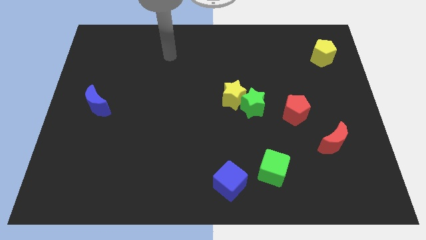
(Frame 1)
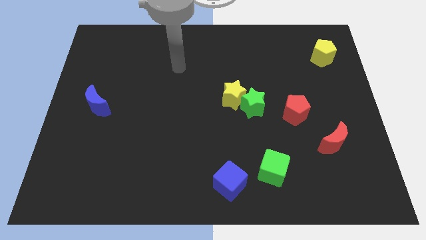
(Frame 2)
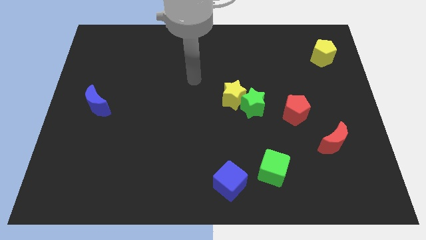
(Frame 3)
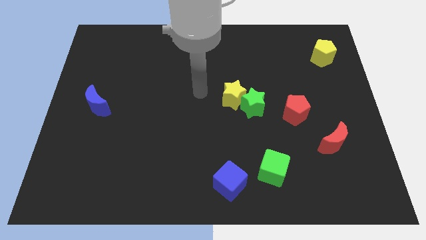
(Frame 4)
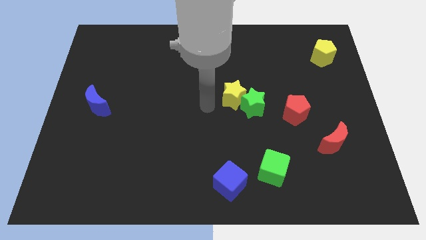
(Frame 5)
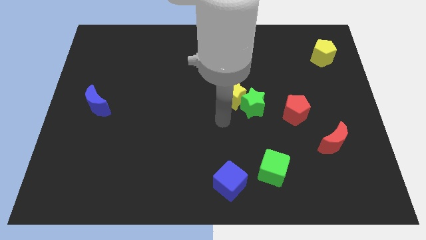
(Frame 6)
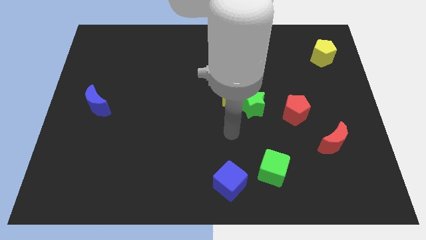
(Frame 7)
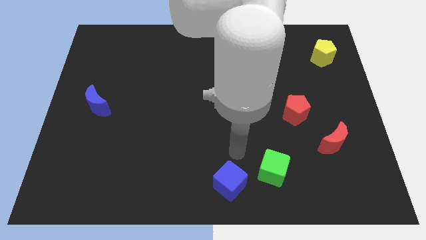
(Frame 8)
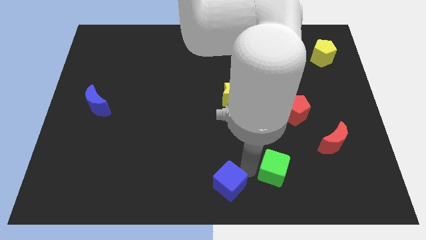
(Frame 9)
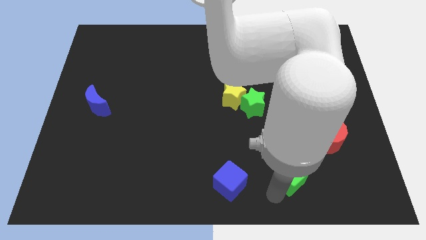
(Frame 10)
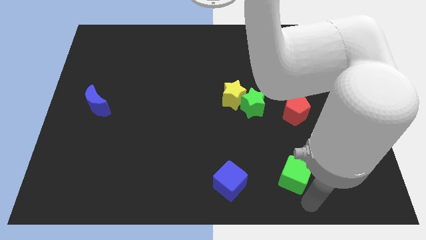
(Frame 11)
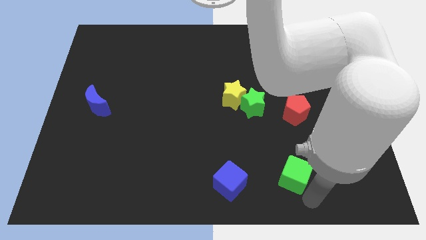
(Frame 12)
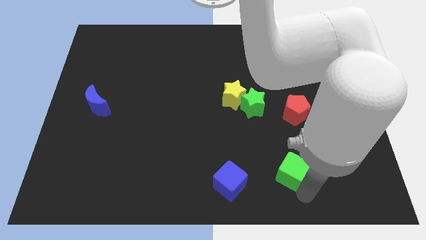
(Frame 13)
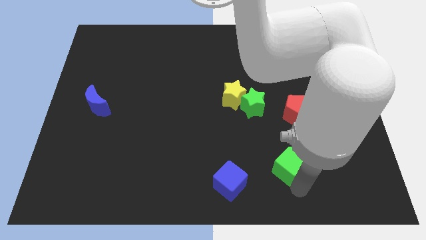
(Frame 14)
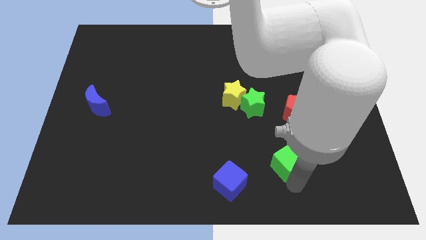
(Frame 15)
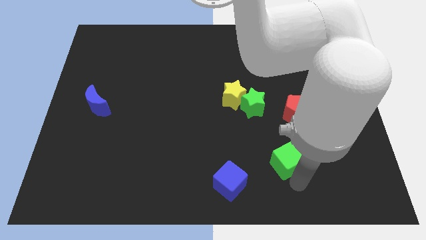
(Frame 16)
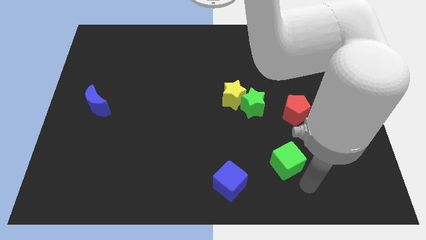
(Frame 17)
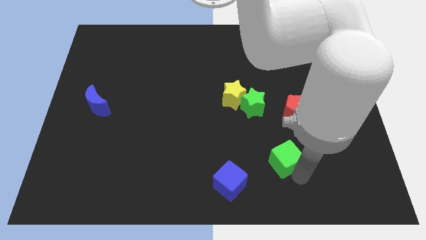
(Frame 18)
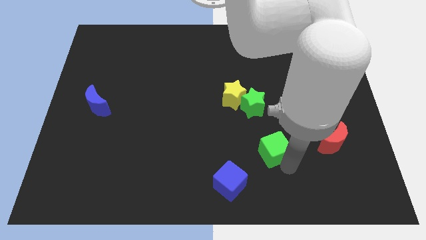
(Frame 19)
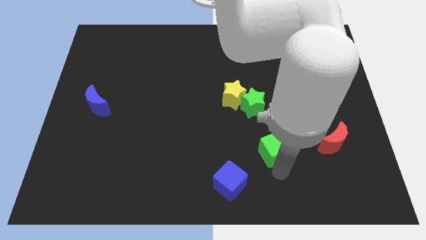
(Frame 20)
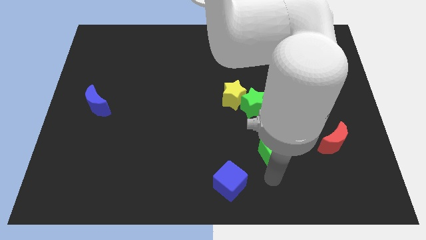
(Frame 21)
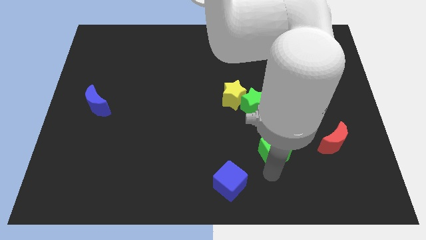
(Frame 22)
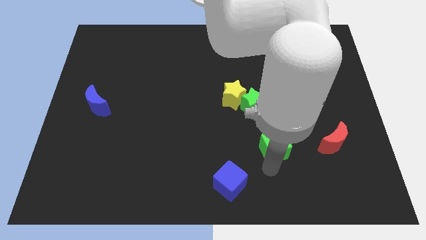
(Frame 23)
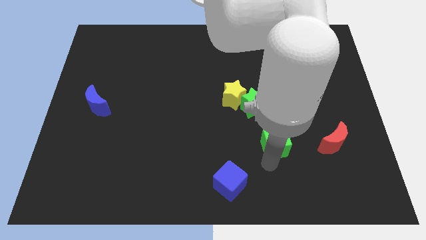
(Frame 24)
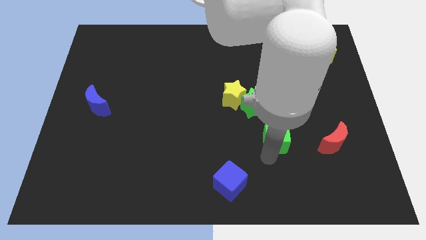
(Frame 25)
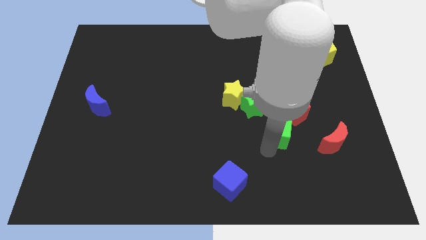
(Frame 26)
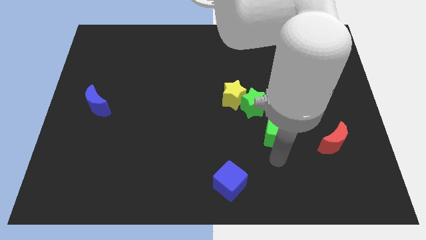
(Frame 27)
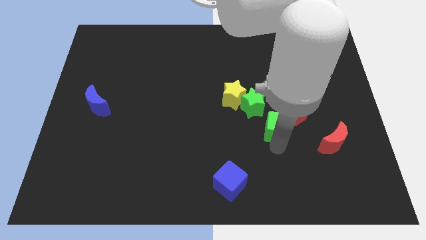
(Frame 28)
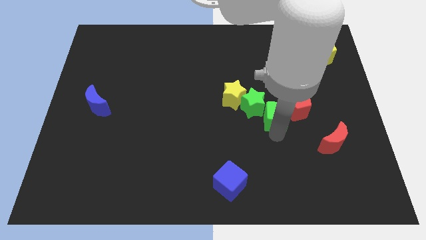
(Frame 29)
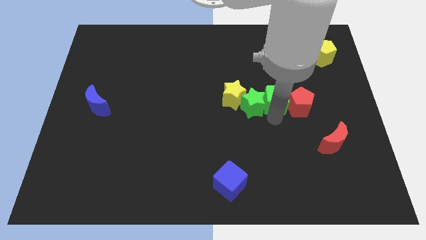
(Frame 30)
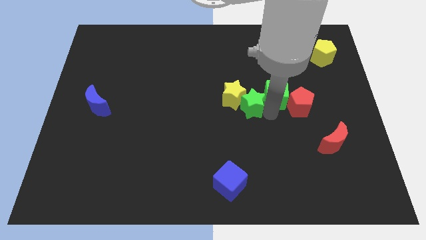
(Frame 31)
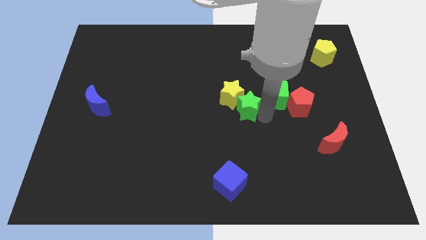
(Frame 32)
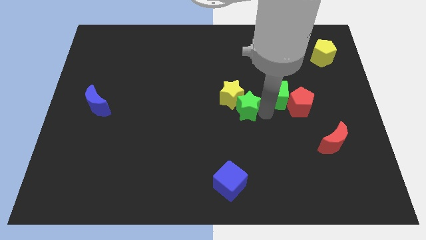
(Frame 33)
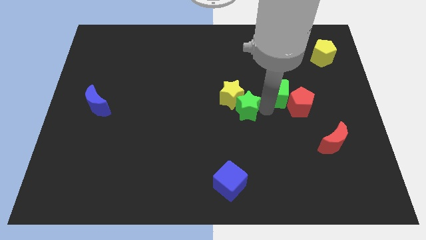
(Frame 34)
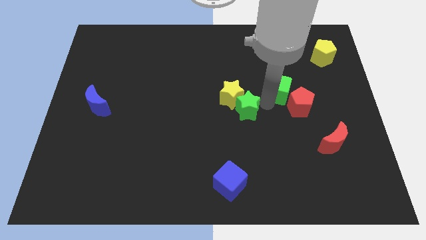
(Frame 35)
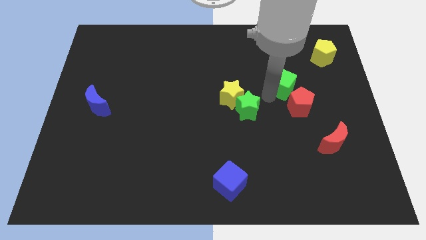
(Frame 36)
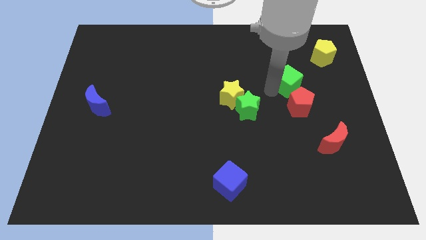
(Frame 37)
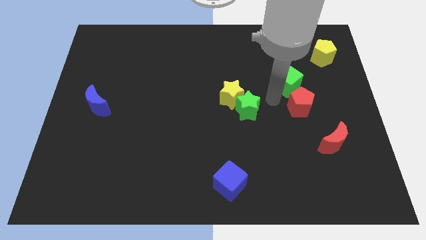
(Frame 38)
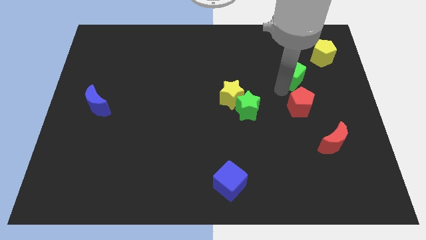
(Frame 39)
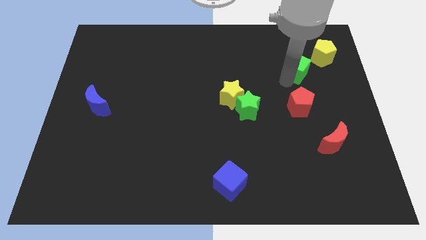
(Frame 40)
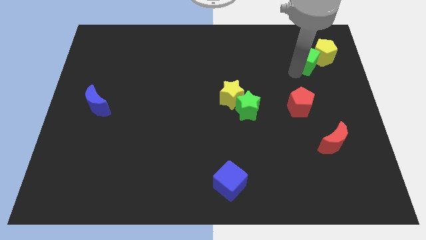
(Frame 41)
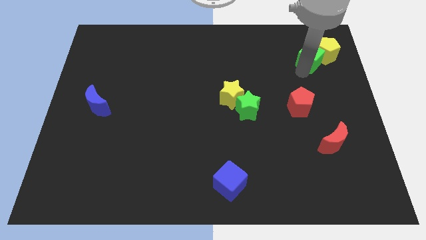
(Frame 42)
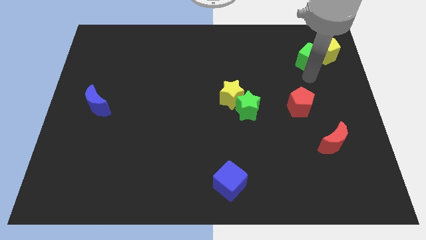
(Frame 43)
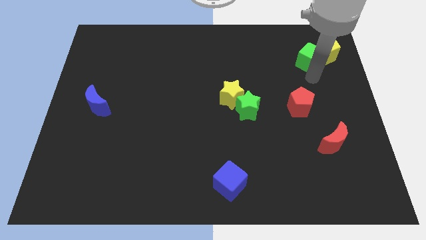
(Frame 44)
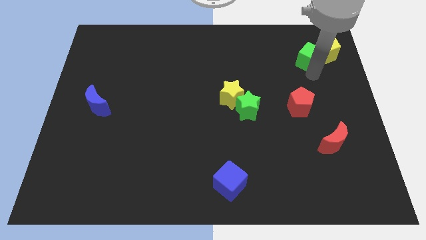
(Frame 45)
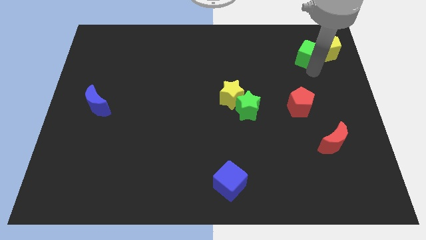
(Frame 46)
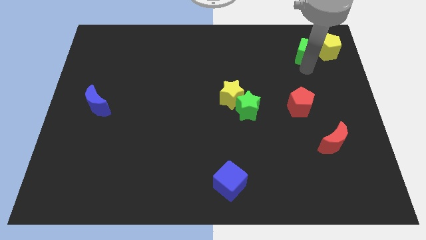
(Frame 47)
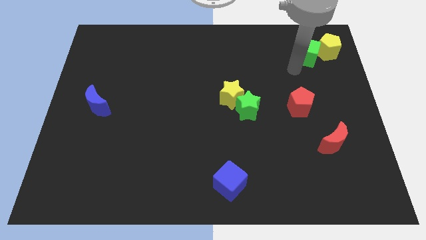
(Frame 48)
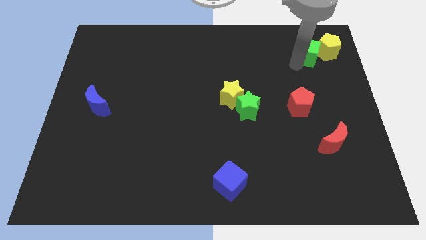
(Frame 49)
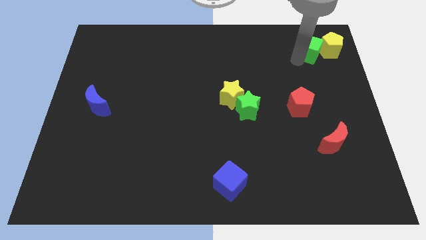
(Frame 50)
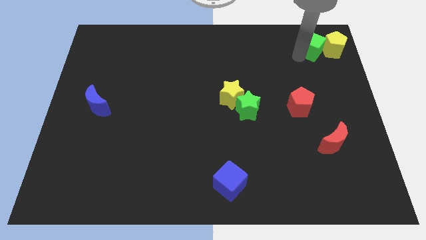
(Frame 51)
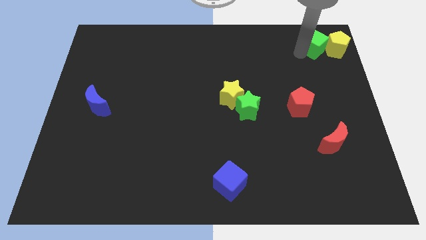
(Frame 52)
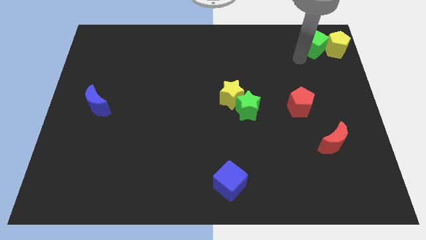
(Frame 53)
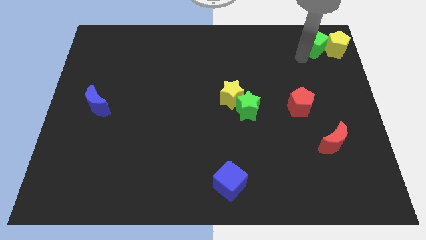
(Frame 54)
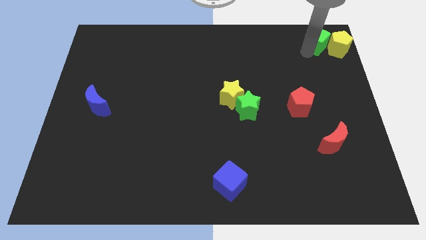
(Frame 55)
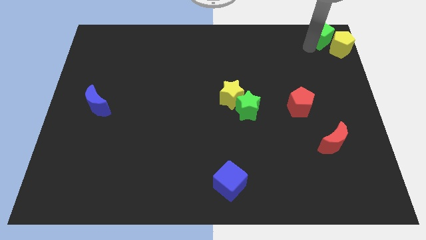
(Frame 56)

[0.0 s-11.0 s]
move the green cube to the top right of the board
